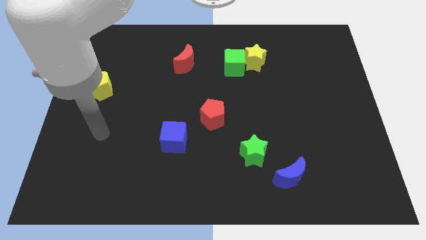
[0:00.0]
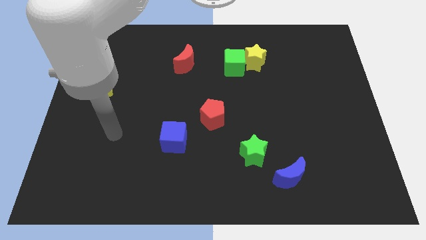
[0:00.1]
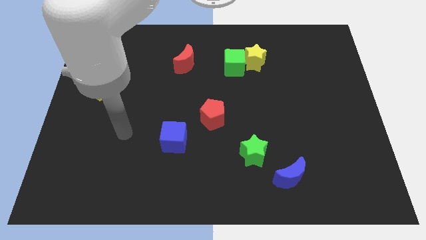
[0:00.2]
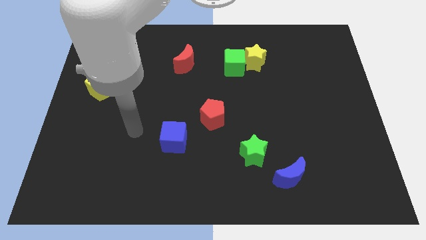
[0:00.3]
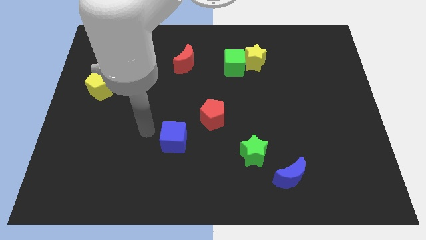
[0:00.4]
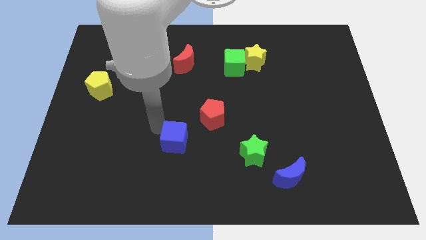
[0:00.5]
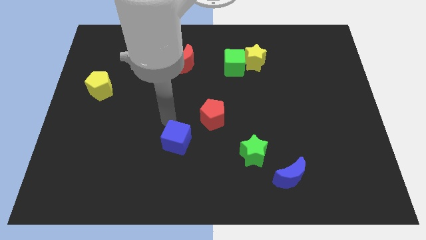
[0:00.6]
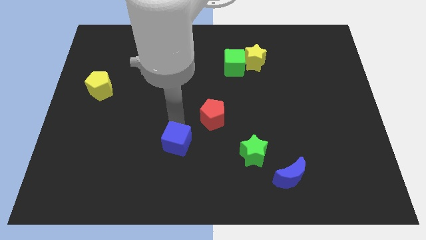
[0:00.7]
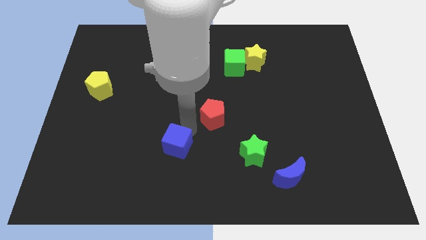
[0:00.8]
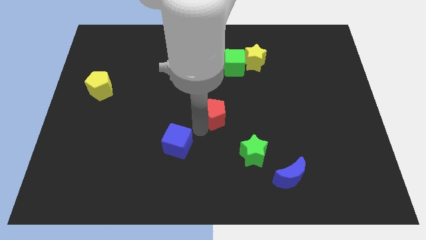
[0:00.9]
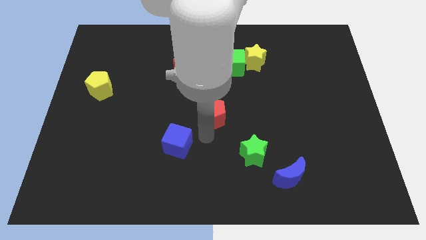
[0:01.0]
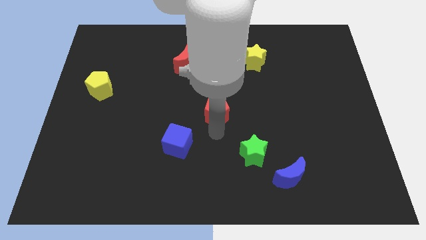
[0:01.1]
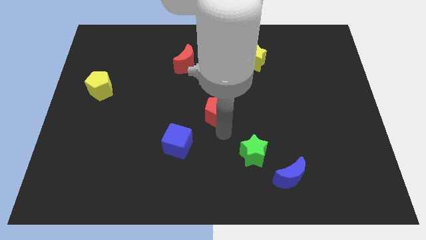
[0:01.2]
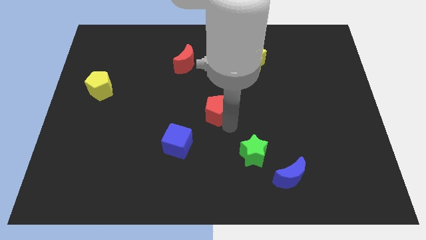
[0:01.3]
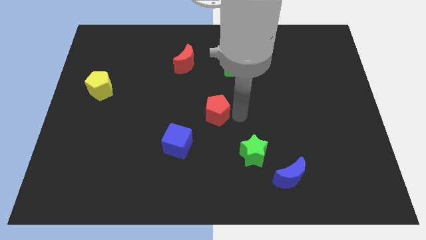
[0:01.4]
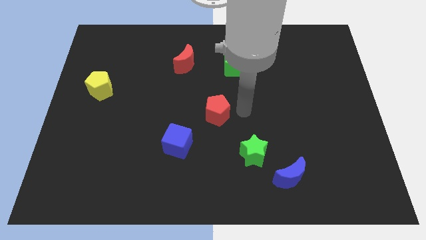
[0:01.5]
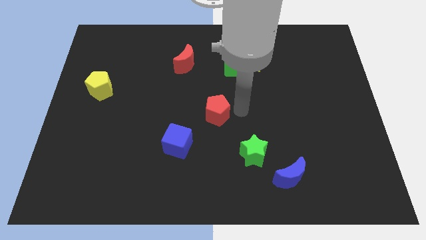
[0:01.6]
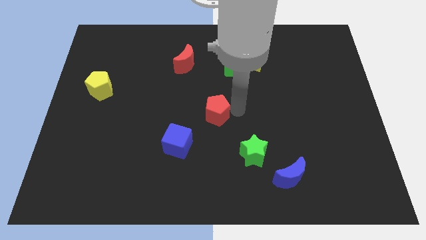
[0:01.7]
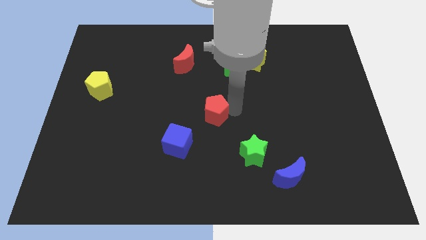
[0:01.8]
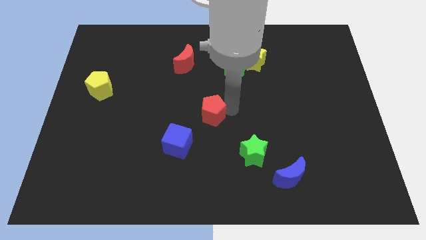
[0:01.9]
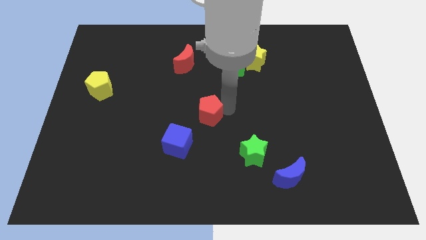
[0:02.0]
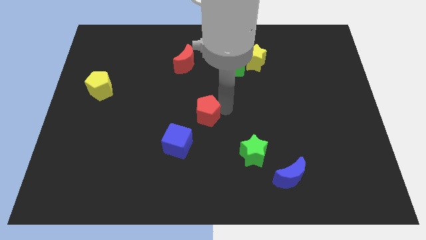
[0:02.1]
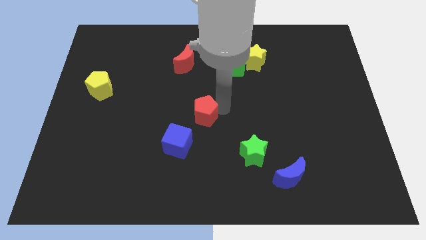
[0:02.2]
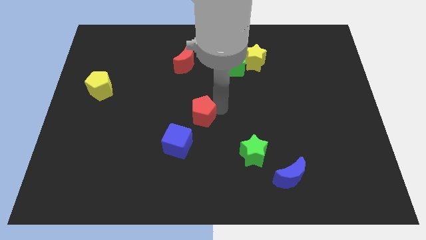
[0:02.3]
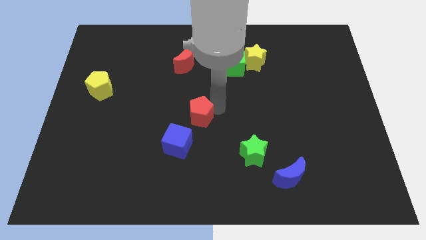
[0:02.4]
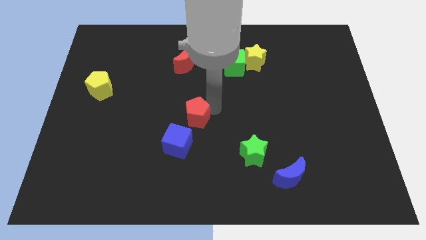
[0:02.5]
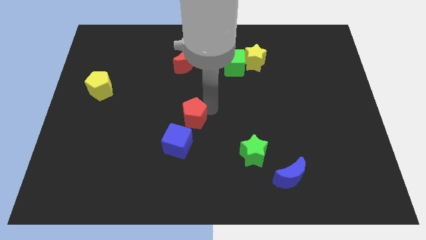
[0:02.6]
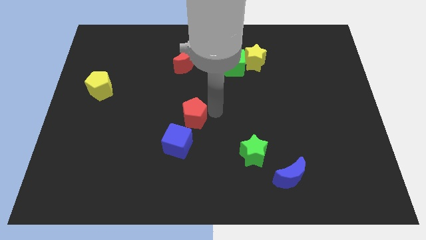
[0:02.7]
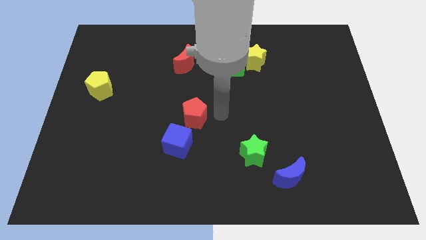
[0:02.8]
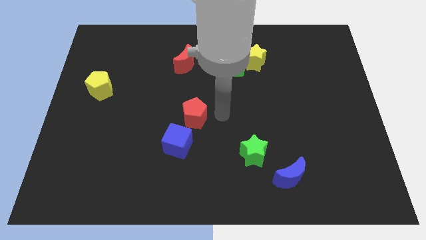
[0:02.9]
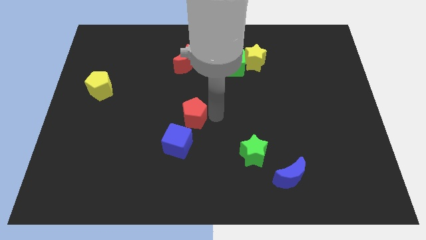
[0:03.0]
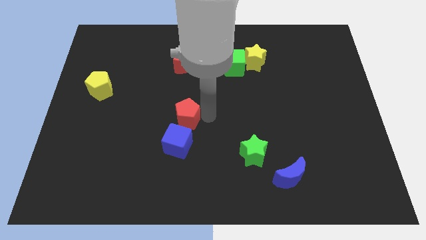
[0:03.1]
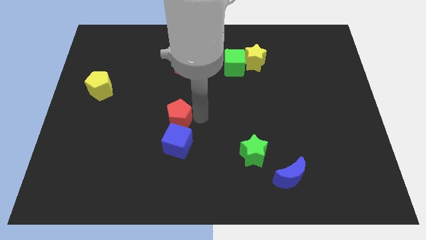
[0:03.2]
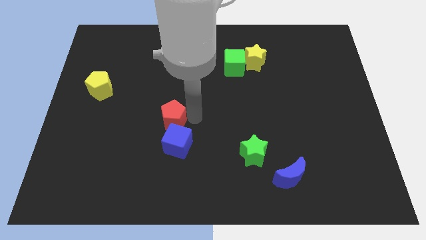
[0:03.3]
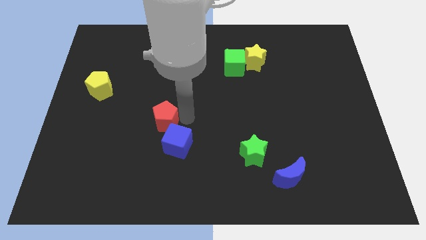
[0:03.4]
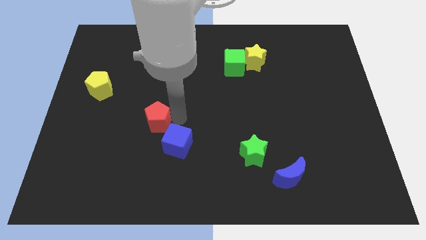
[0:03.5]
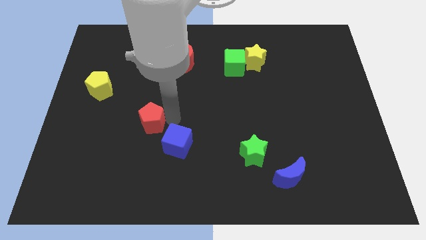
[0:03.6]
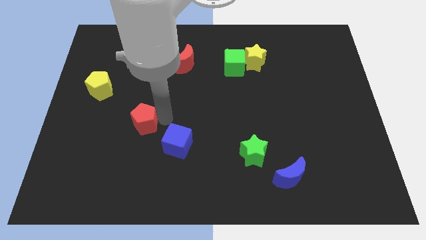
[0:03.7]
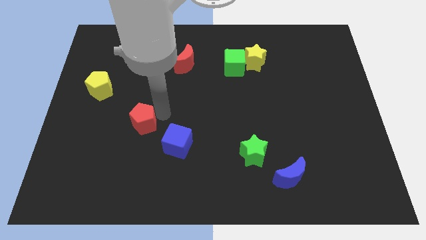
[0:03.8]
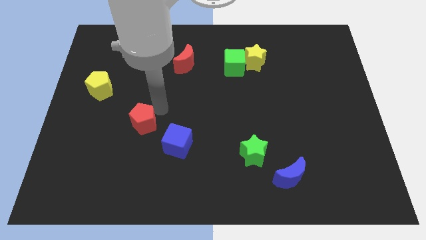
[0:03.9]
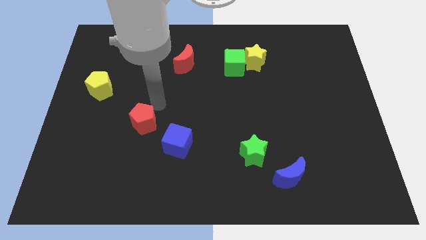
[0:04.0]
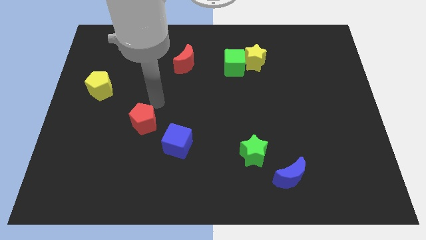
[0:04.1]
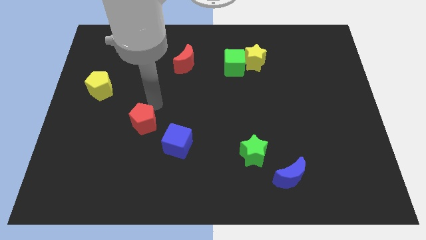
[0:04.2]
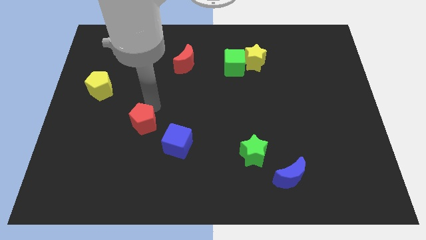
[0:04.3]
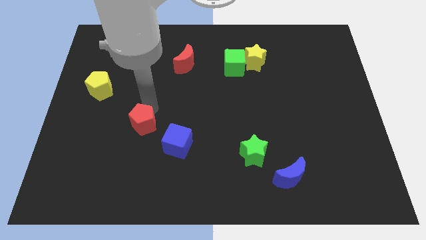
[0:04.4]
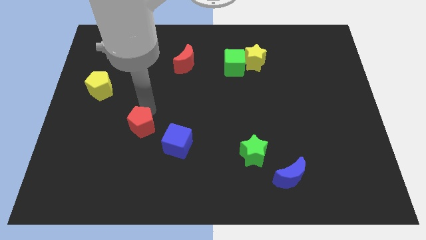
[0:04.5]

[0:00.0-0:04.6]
push the red pentagon just left of the blue cube

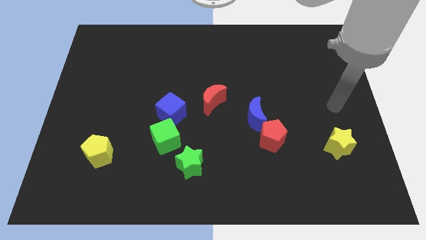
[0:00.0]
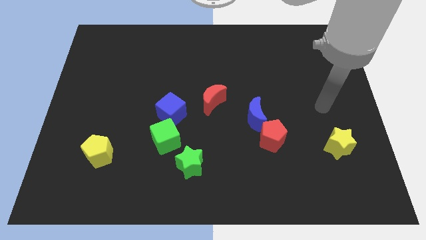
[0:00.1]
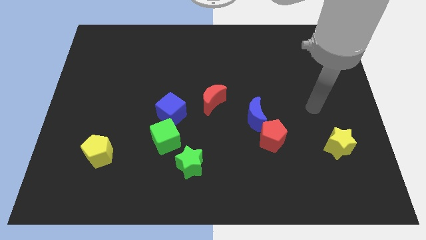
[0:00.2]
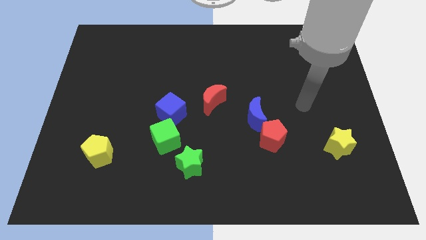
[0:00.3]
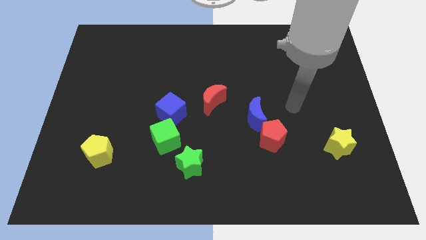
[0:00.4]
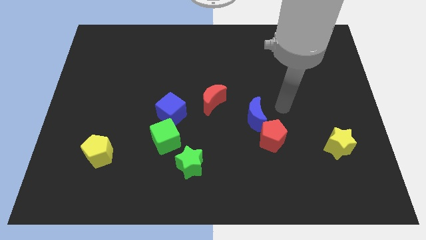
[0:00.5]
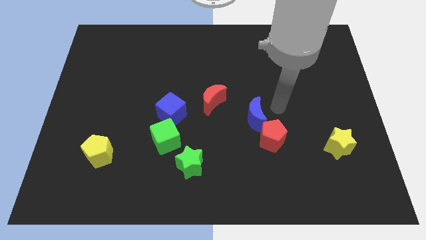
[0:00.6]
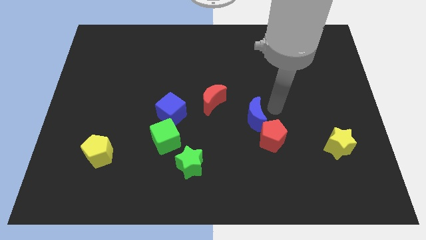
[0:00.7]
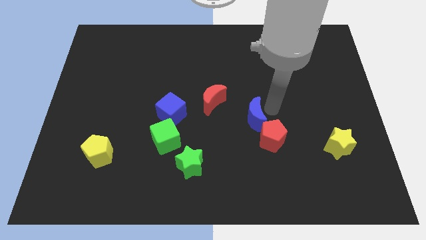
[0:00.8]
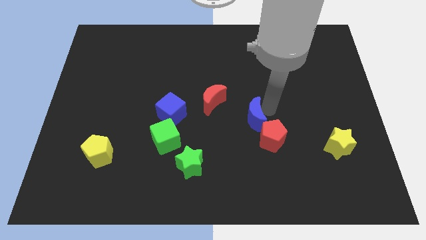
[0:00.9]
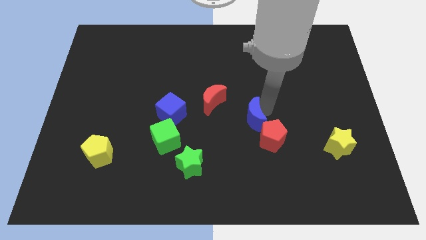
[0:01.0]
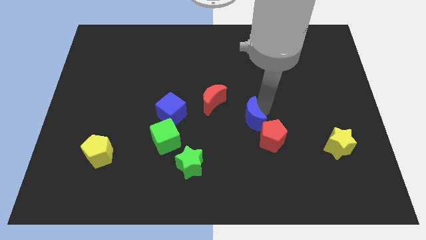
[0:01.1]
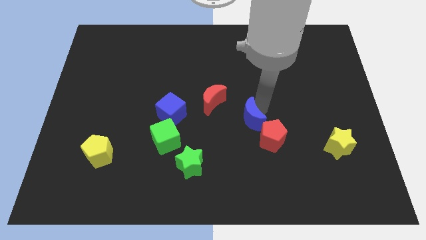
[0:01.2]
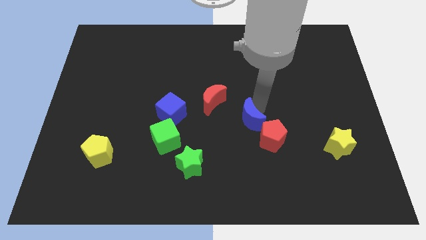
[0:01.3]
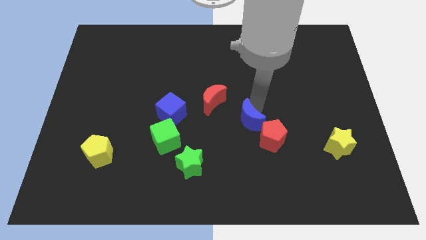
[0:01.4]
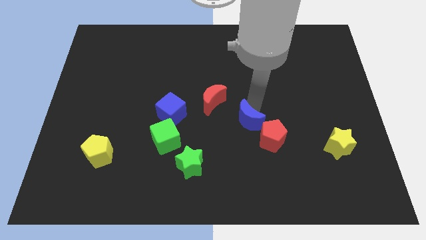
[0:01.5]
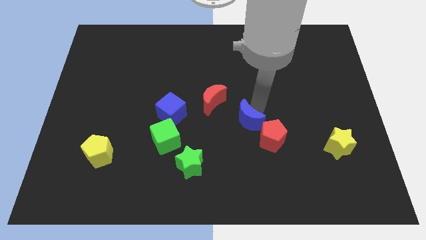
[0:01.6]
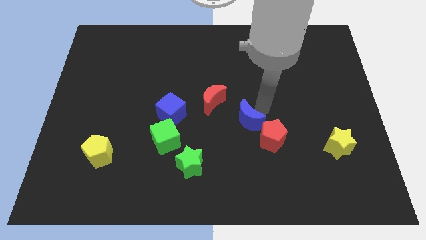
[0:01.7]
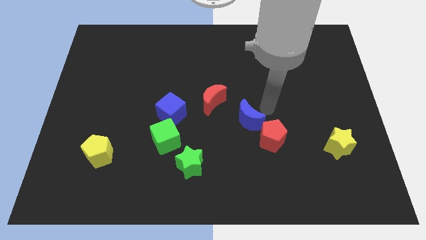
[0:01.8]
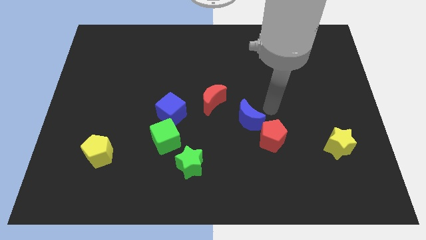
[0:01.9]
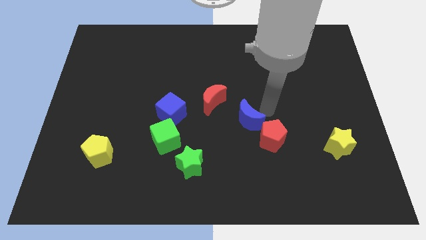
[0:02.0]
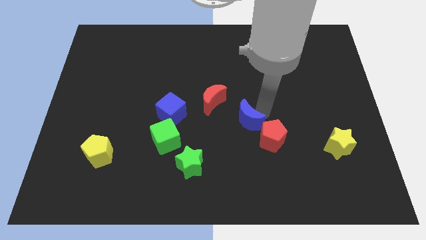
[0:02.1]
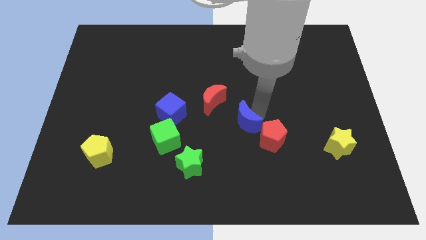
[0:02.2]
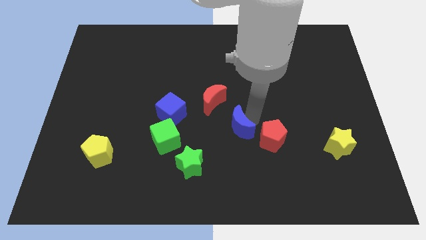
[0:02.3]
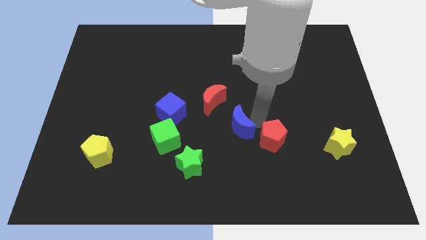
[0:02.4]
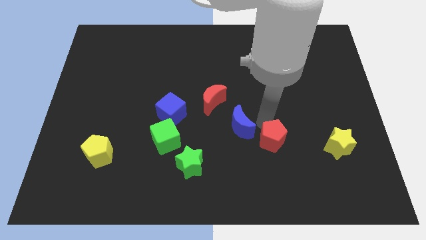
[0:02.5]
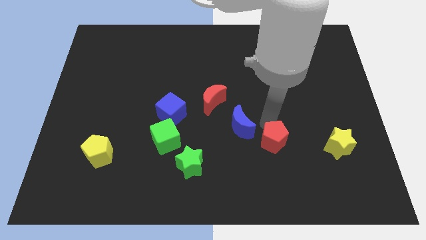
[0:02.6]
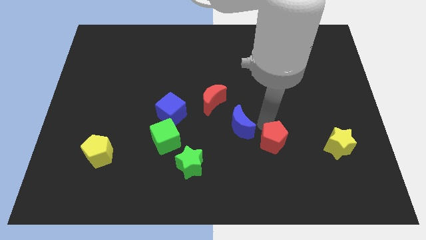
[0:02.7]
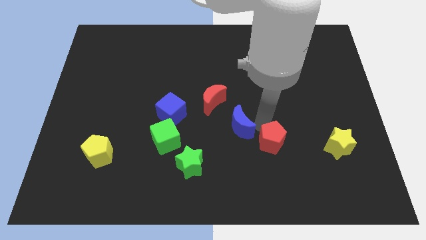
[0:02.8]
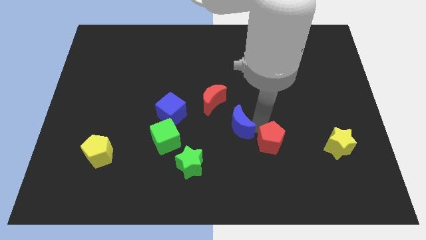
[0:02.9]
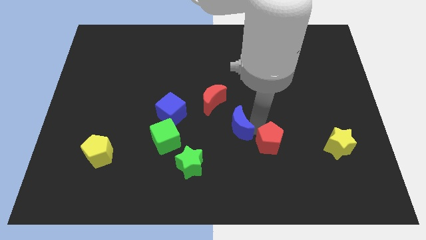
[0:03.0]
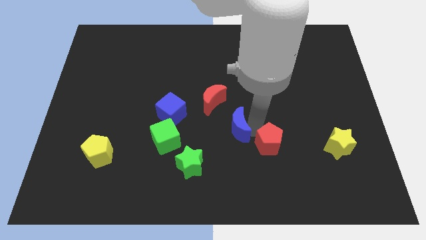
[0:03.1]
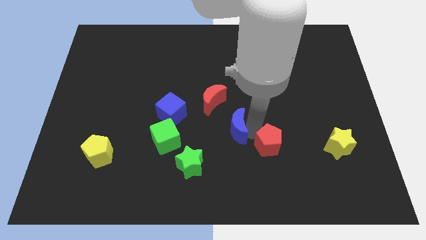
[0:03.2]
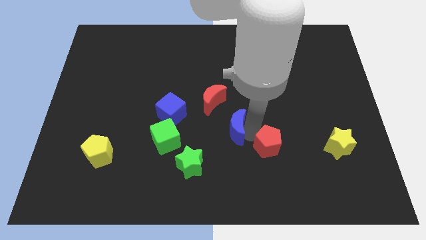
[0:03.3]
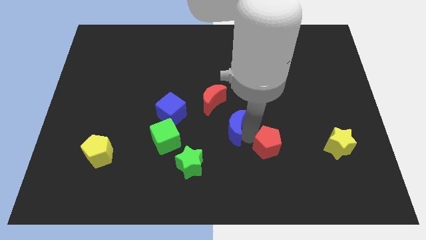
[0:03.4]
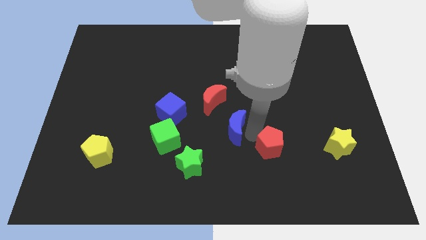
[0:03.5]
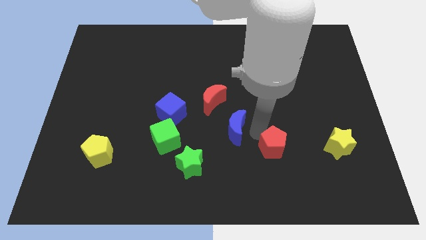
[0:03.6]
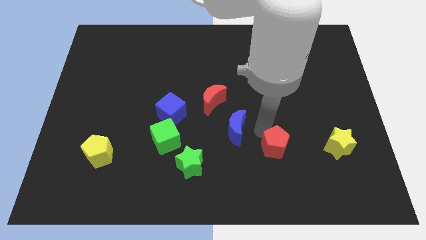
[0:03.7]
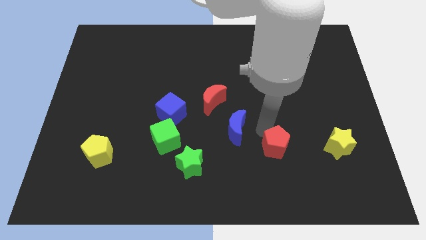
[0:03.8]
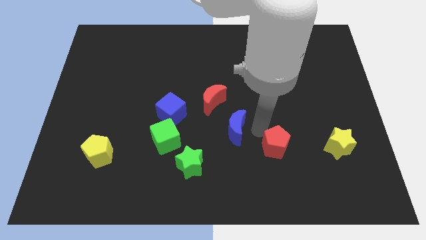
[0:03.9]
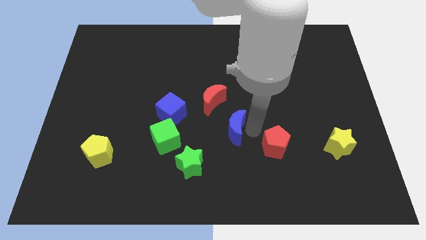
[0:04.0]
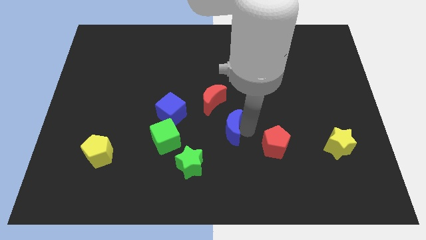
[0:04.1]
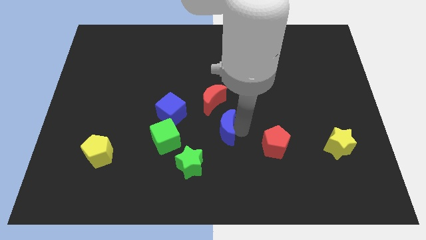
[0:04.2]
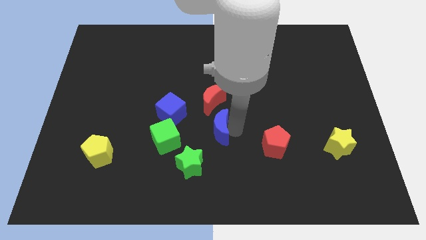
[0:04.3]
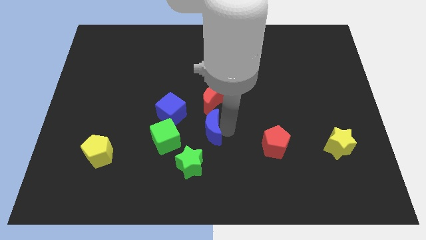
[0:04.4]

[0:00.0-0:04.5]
move the blue moon diagonally down and to the right of the blue cube
